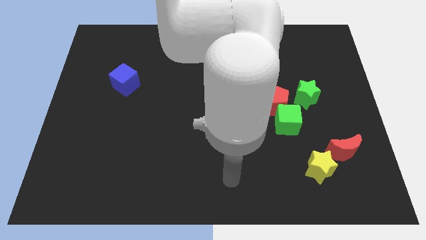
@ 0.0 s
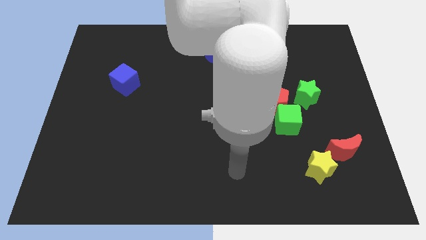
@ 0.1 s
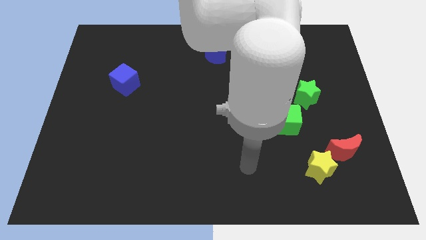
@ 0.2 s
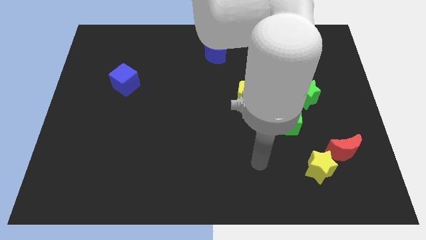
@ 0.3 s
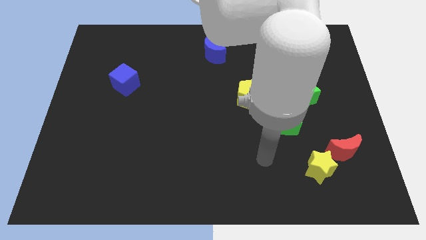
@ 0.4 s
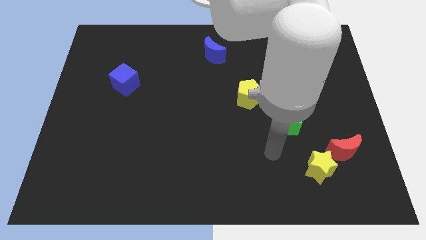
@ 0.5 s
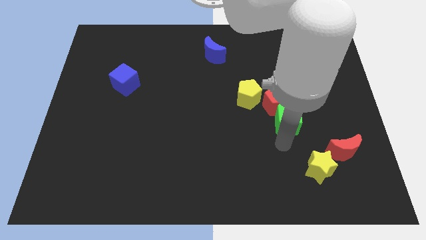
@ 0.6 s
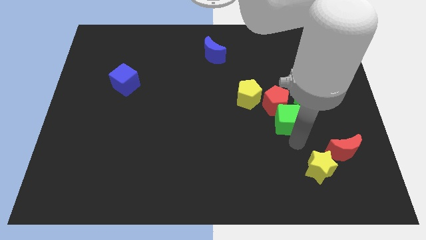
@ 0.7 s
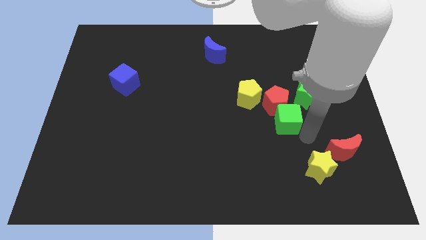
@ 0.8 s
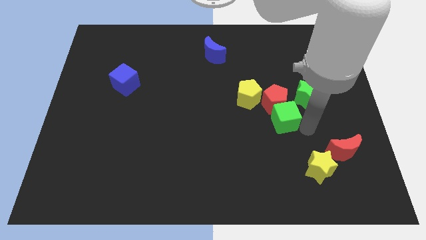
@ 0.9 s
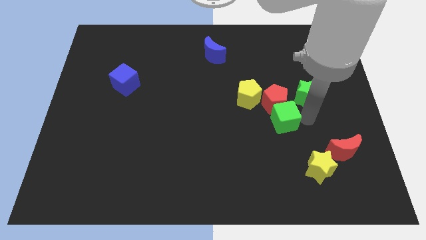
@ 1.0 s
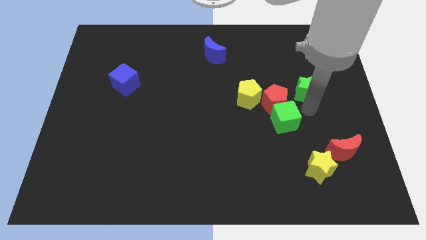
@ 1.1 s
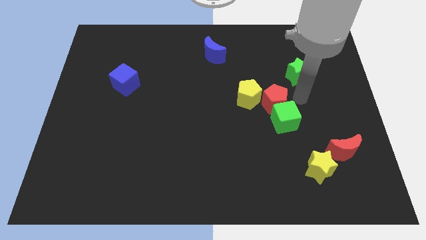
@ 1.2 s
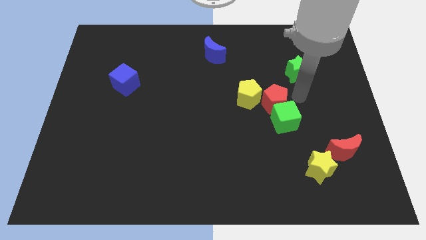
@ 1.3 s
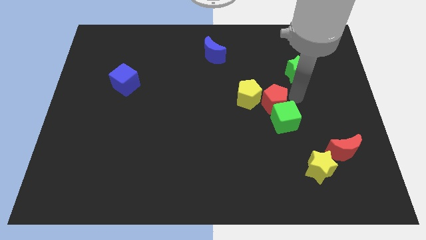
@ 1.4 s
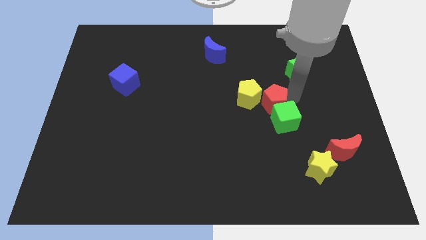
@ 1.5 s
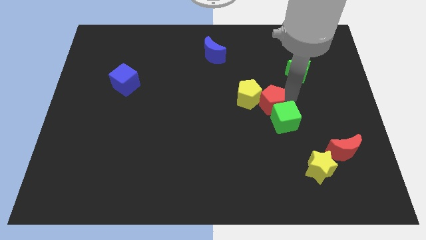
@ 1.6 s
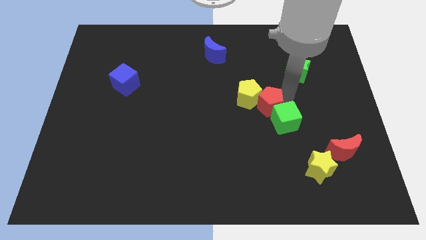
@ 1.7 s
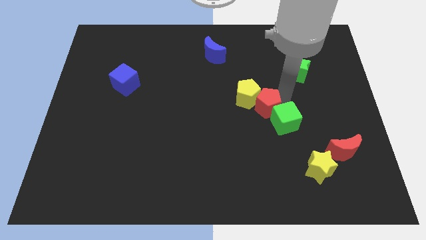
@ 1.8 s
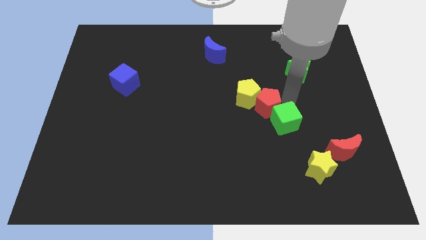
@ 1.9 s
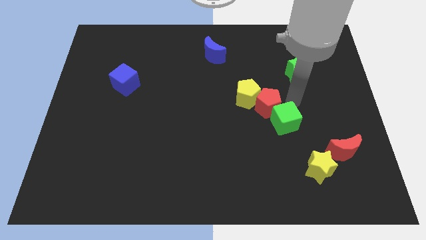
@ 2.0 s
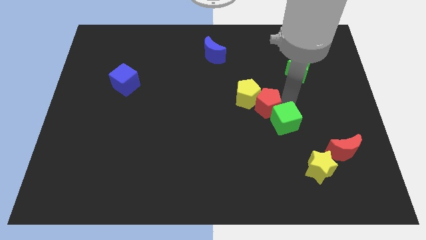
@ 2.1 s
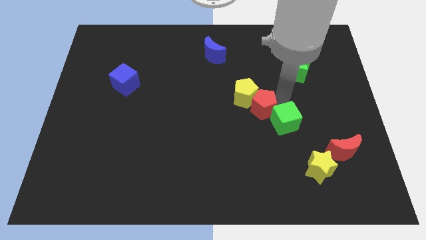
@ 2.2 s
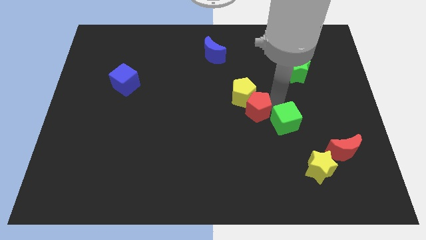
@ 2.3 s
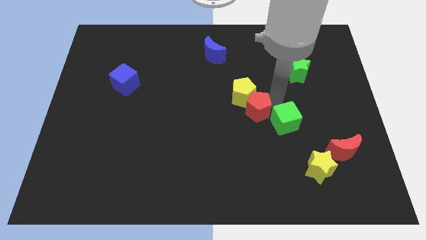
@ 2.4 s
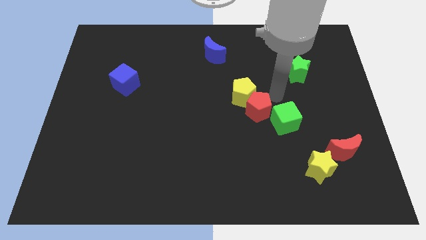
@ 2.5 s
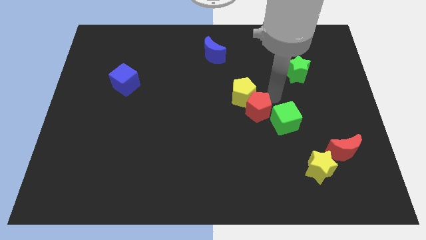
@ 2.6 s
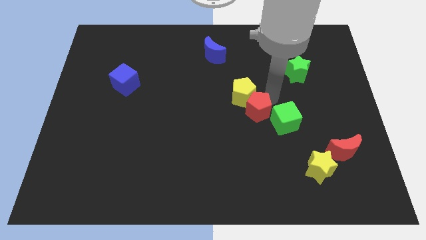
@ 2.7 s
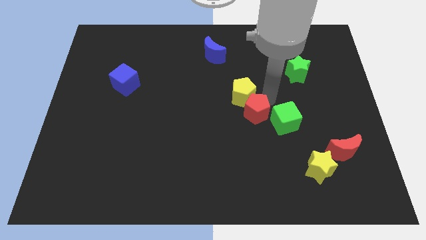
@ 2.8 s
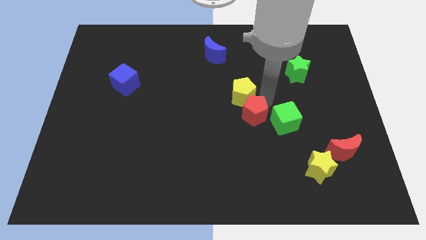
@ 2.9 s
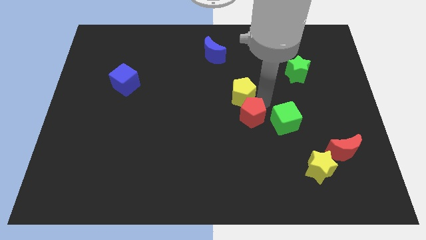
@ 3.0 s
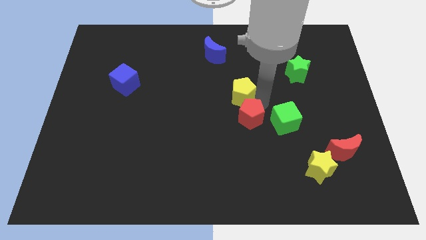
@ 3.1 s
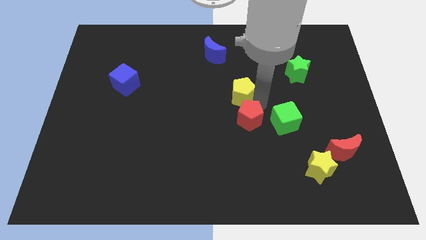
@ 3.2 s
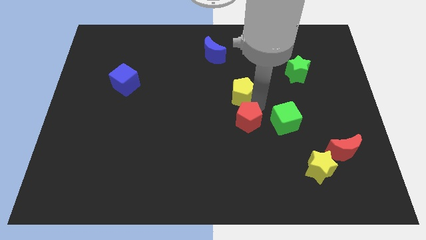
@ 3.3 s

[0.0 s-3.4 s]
move the red pentagon away from the group of blocks

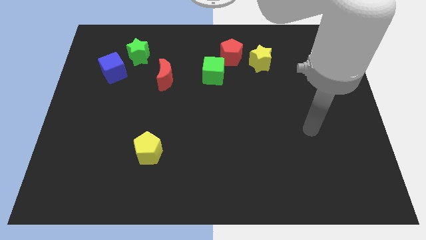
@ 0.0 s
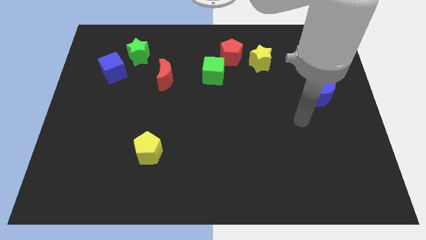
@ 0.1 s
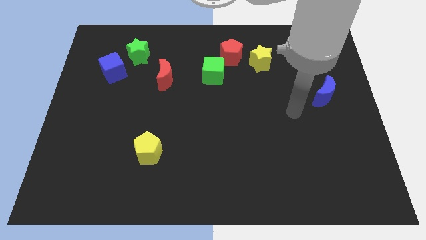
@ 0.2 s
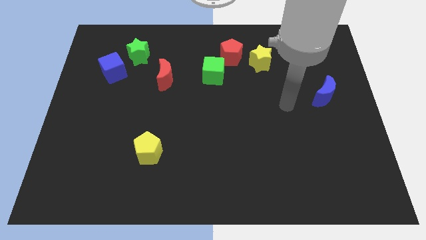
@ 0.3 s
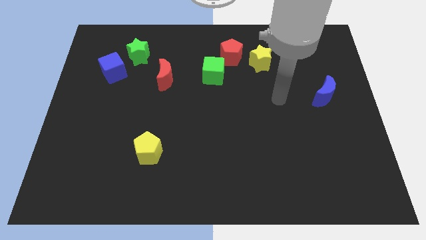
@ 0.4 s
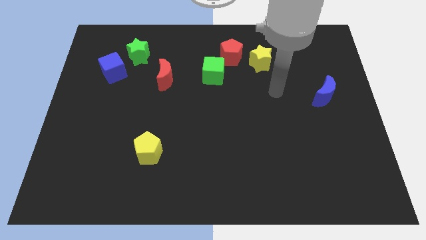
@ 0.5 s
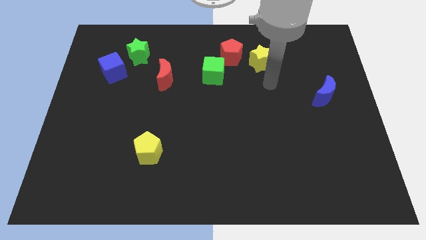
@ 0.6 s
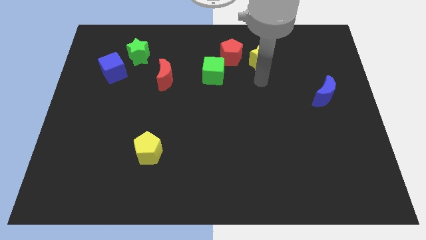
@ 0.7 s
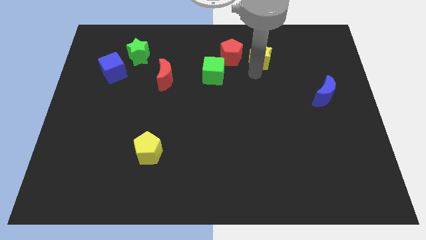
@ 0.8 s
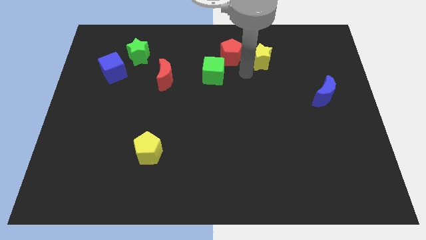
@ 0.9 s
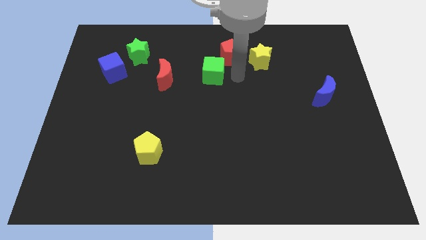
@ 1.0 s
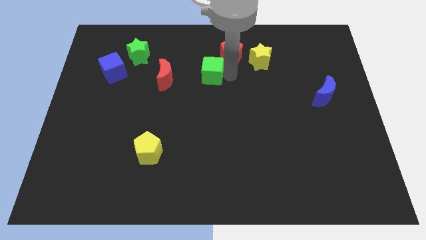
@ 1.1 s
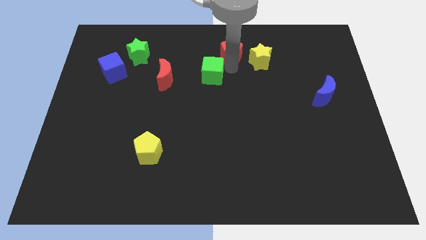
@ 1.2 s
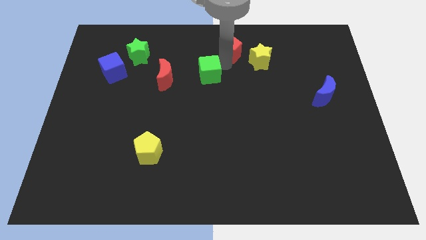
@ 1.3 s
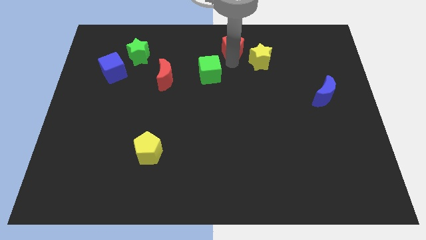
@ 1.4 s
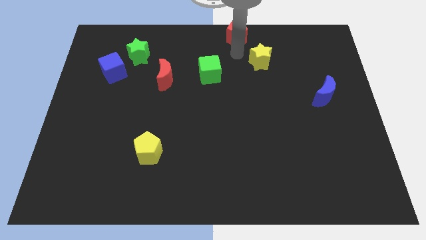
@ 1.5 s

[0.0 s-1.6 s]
separate the yellow star from the red pentagon

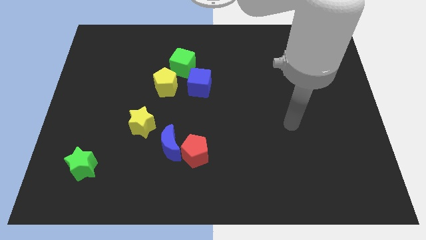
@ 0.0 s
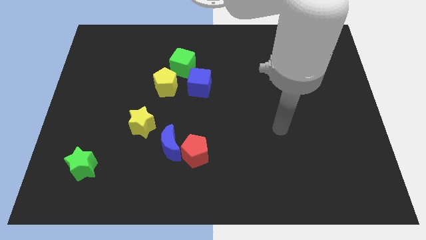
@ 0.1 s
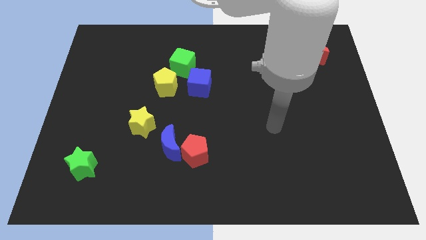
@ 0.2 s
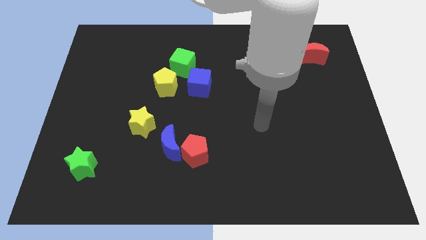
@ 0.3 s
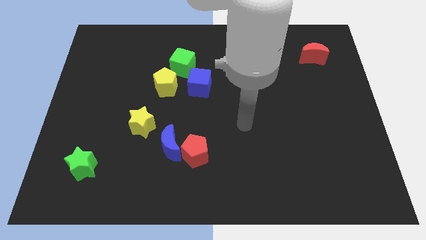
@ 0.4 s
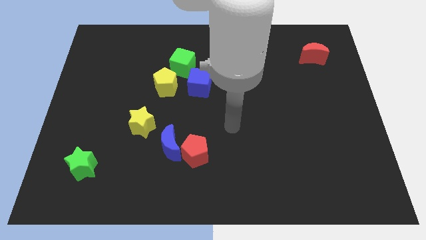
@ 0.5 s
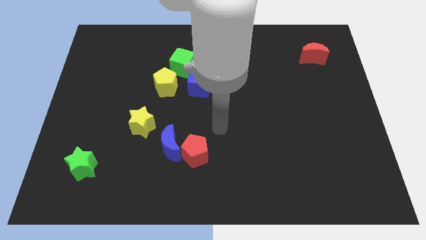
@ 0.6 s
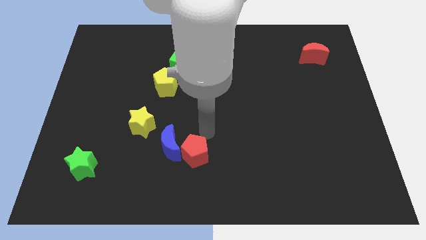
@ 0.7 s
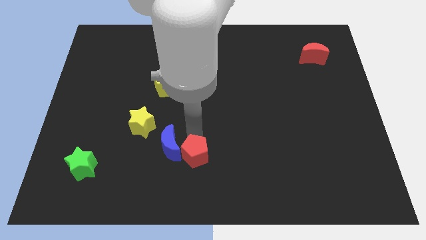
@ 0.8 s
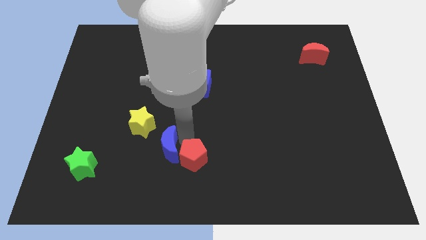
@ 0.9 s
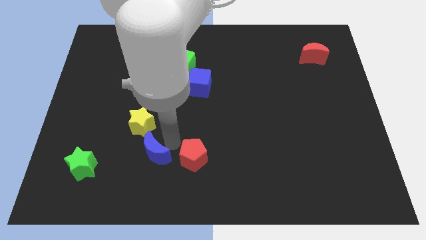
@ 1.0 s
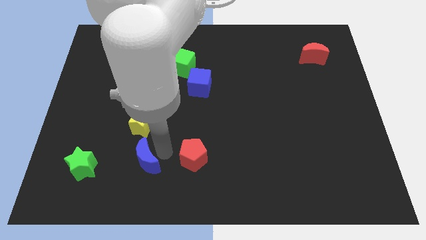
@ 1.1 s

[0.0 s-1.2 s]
pull the red pentagon apart from the blue moon

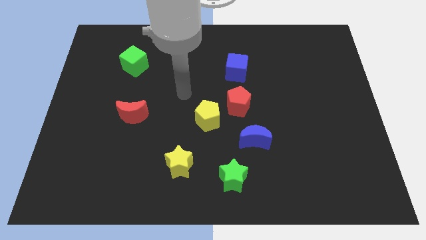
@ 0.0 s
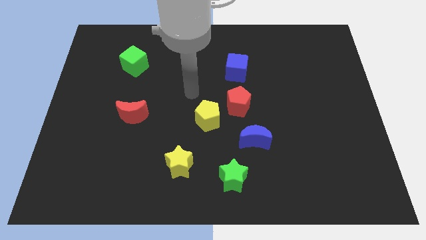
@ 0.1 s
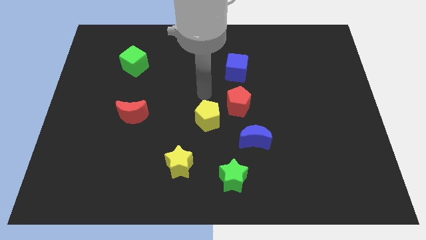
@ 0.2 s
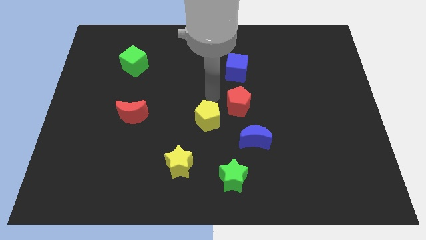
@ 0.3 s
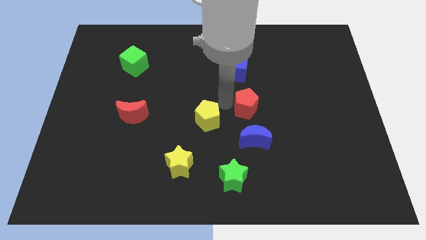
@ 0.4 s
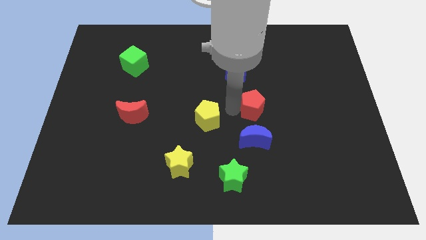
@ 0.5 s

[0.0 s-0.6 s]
separate the yellow pentagon from the red pentagon

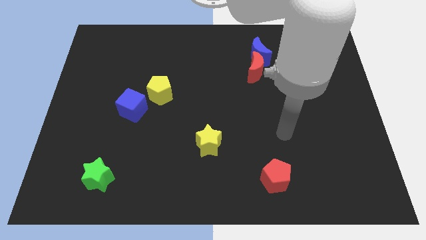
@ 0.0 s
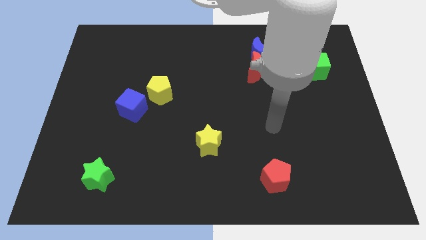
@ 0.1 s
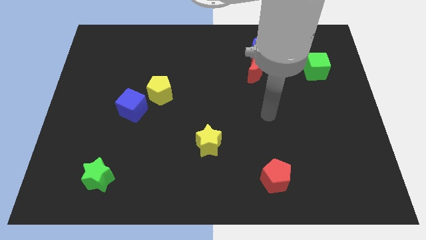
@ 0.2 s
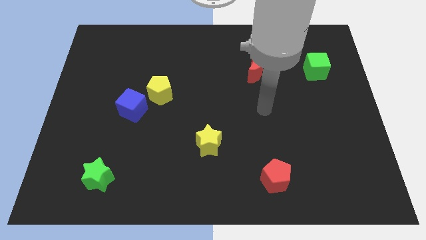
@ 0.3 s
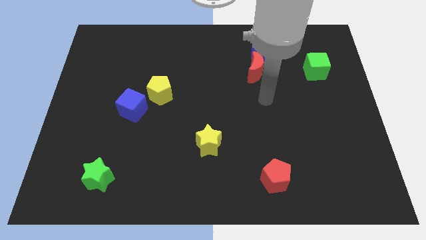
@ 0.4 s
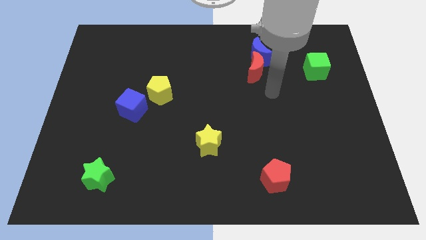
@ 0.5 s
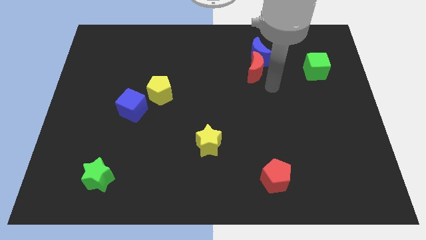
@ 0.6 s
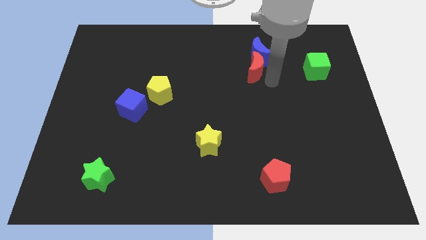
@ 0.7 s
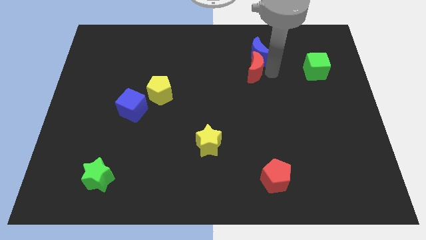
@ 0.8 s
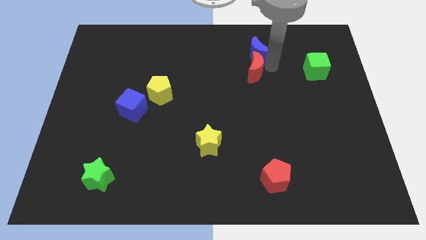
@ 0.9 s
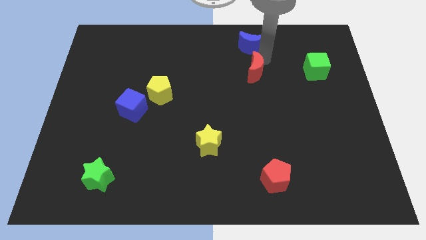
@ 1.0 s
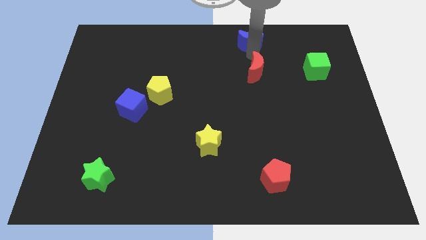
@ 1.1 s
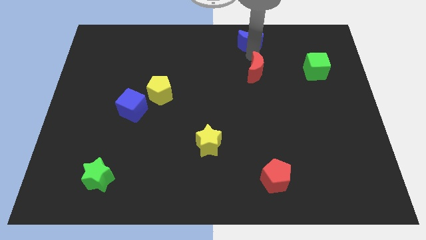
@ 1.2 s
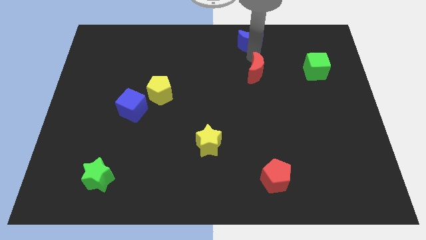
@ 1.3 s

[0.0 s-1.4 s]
pull the red moon apart from the blue moon

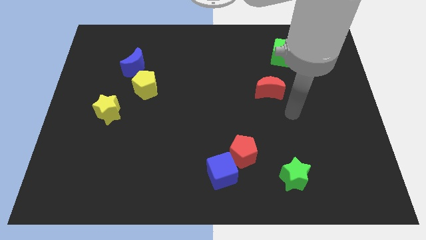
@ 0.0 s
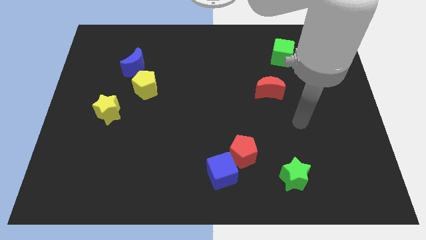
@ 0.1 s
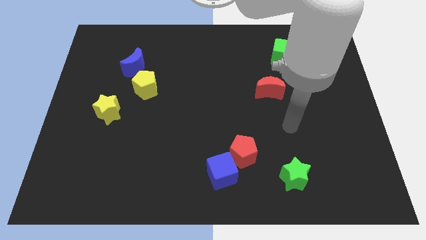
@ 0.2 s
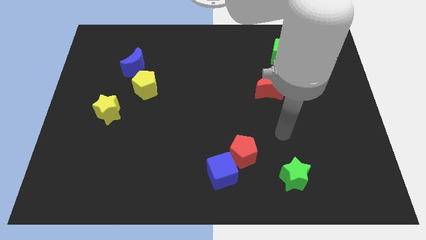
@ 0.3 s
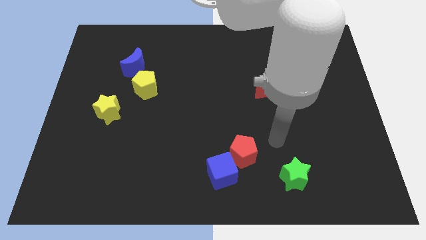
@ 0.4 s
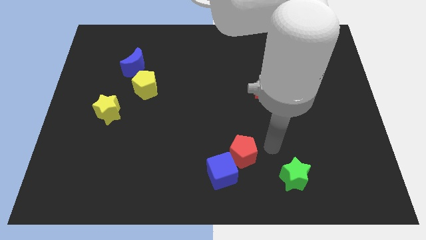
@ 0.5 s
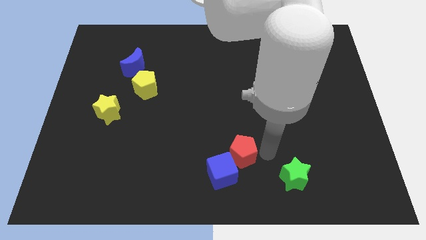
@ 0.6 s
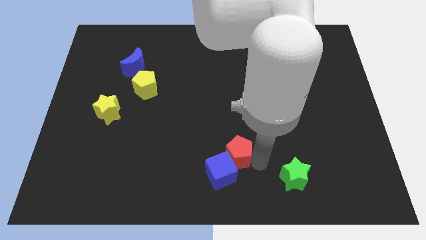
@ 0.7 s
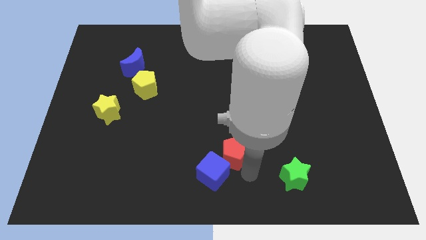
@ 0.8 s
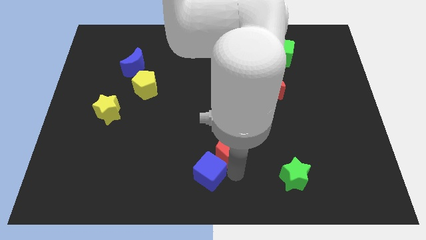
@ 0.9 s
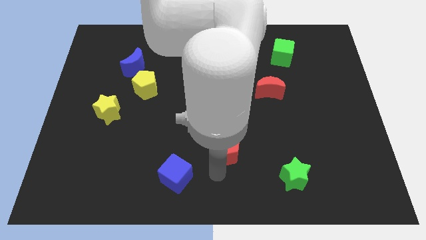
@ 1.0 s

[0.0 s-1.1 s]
separate the red pentagon from the blue cube
